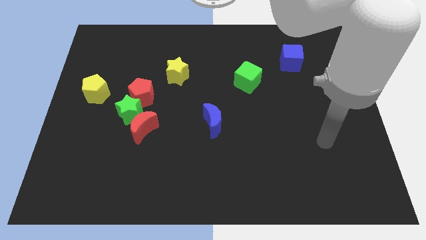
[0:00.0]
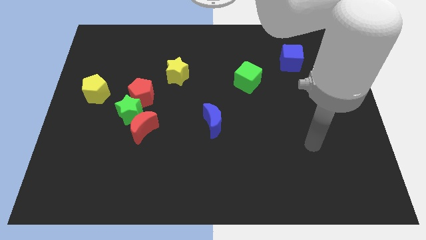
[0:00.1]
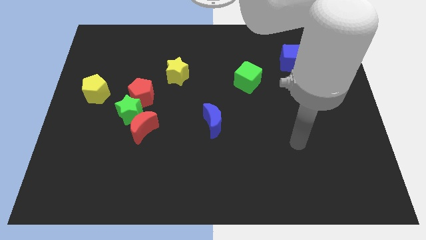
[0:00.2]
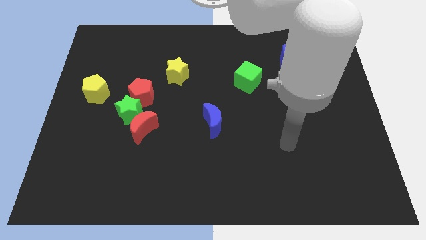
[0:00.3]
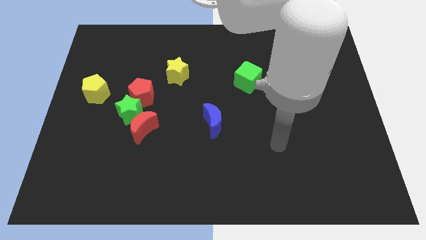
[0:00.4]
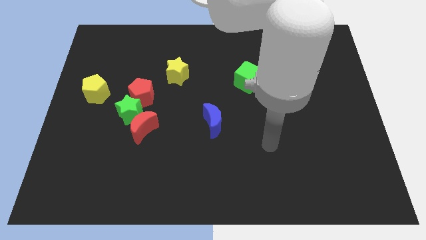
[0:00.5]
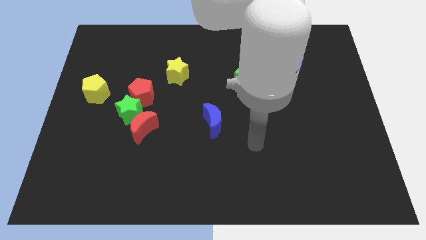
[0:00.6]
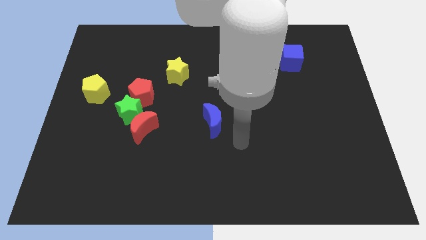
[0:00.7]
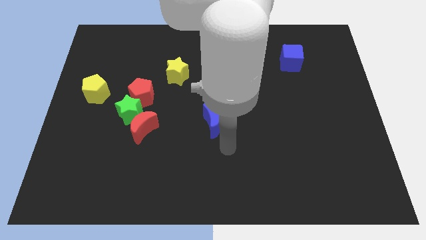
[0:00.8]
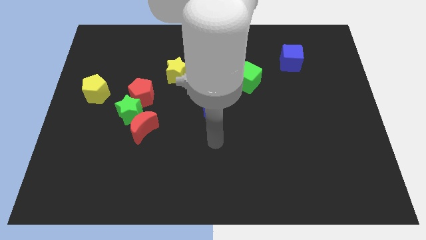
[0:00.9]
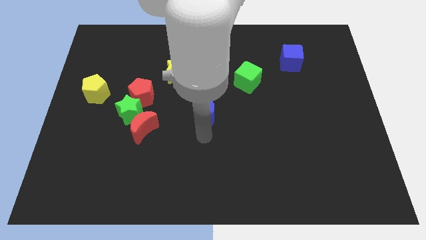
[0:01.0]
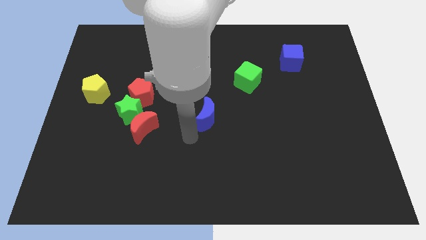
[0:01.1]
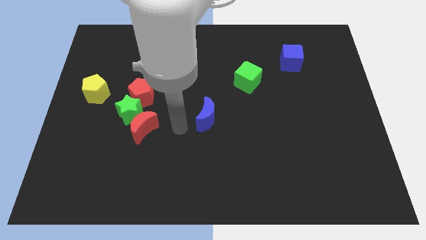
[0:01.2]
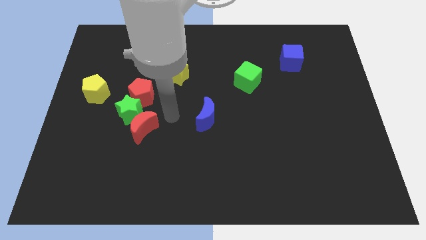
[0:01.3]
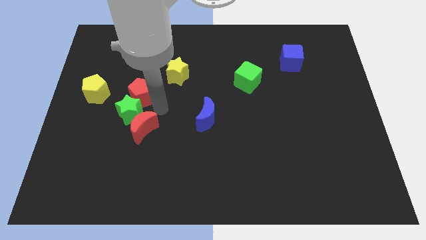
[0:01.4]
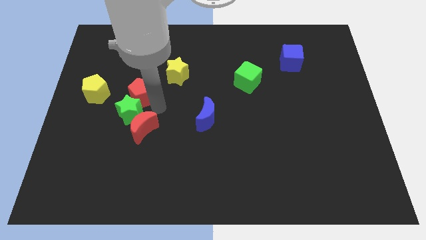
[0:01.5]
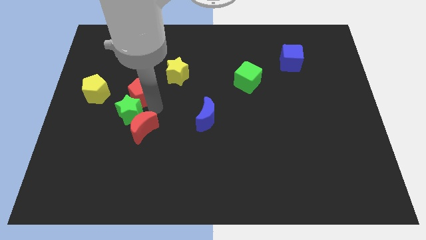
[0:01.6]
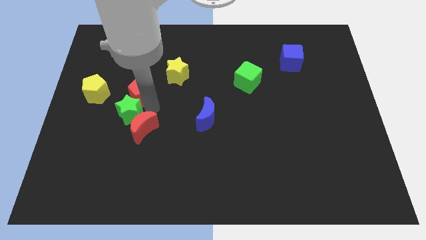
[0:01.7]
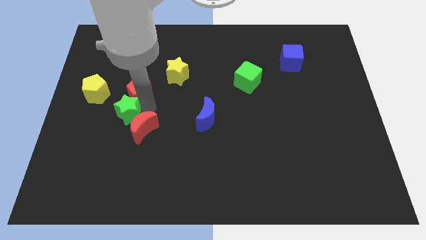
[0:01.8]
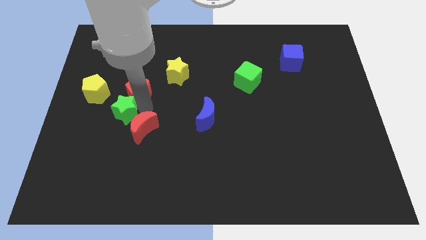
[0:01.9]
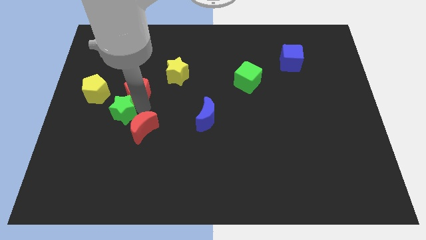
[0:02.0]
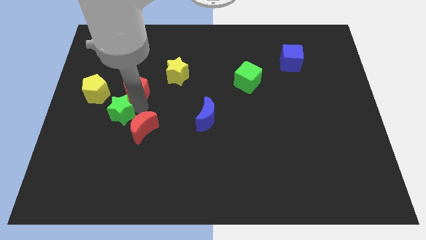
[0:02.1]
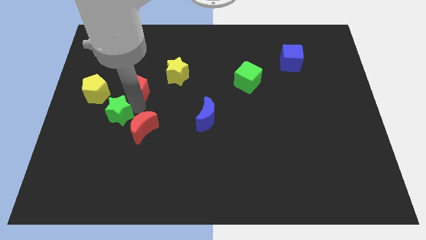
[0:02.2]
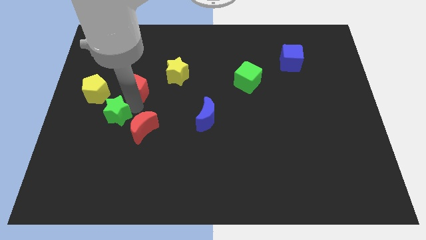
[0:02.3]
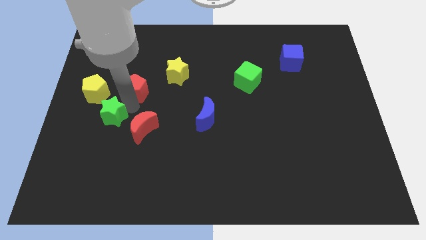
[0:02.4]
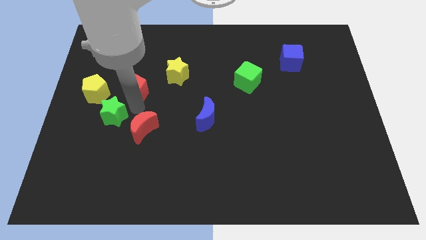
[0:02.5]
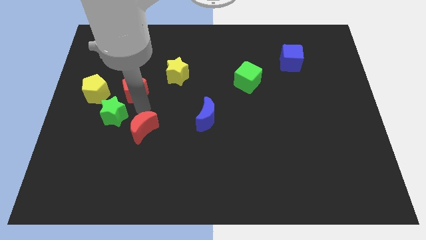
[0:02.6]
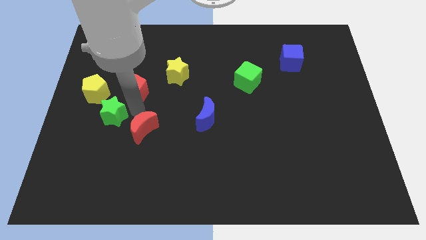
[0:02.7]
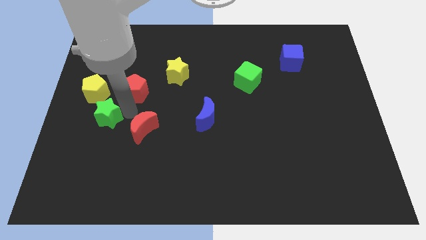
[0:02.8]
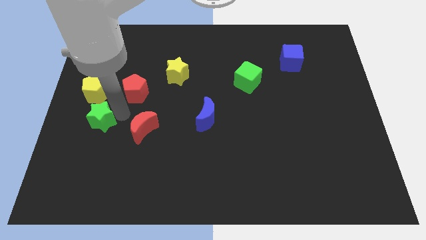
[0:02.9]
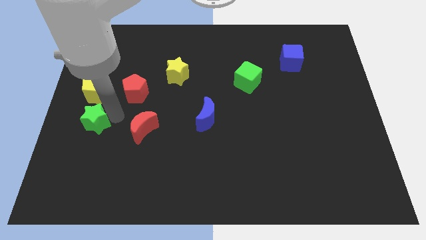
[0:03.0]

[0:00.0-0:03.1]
separate the green star from the red moon and red pentagon

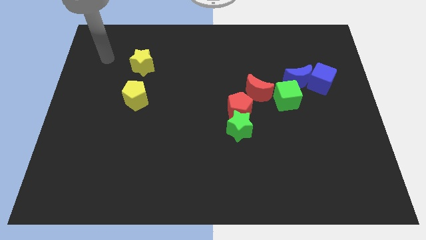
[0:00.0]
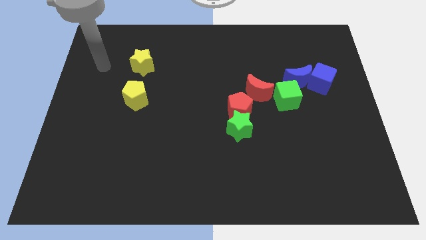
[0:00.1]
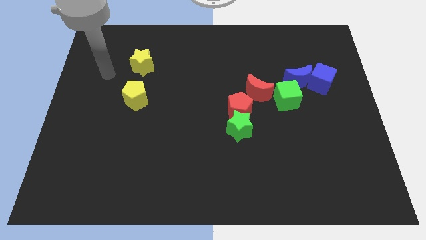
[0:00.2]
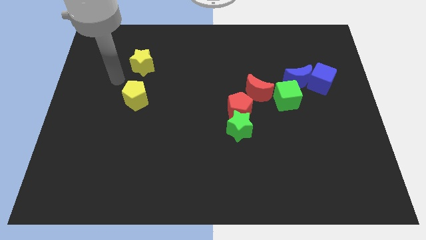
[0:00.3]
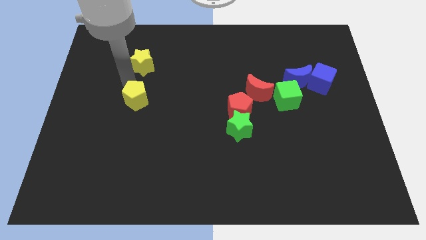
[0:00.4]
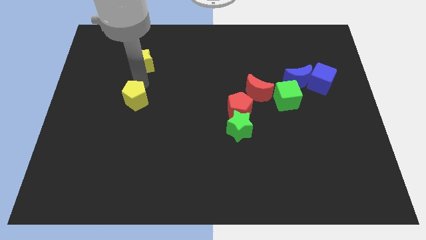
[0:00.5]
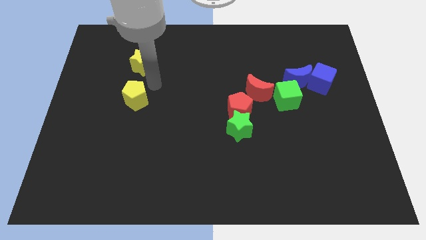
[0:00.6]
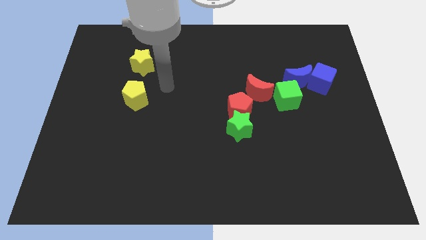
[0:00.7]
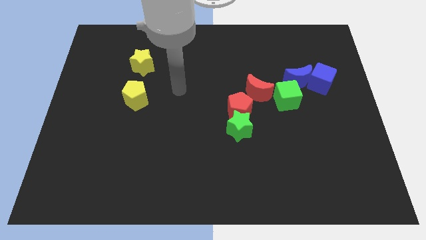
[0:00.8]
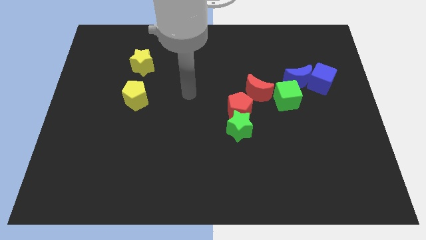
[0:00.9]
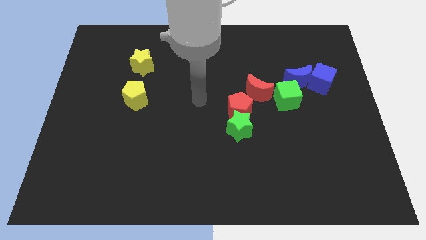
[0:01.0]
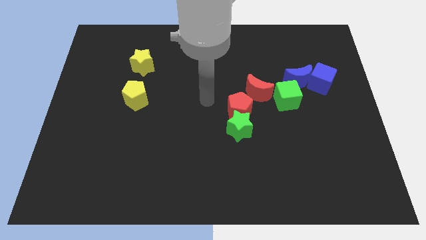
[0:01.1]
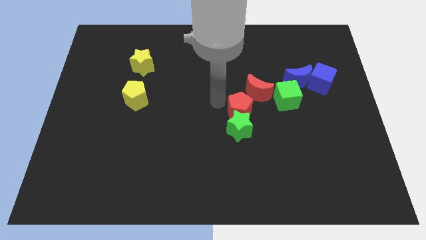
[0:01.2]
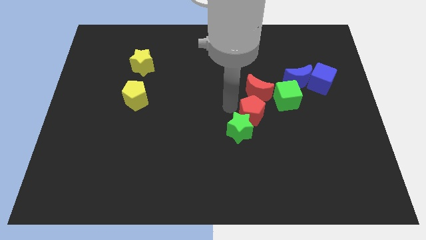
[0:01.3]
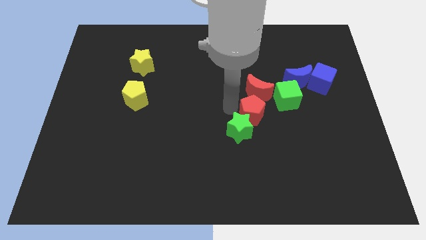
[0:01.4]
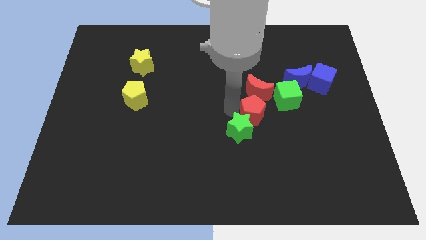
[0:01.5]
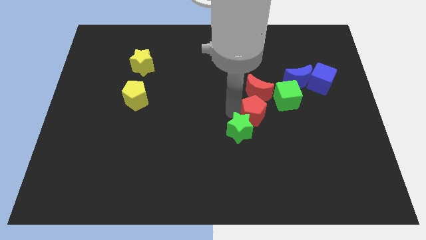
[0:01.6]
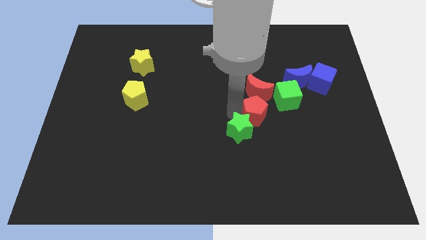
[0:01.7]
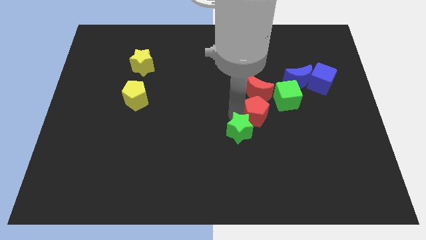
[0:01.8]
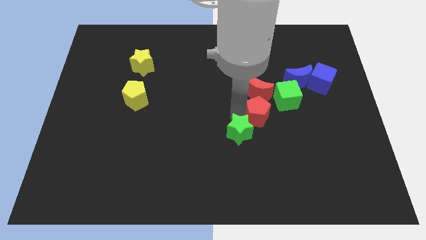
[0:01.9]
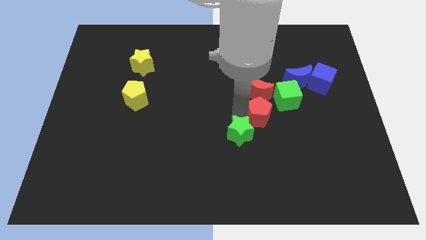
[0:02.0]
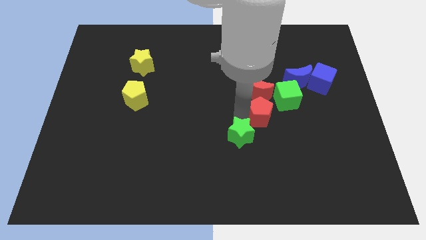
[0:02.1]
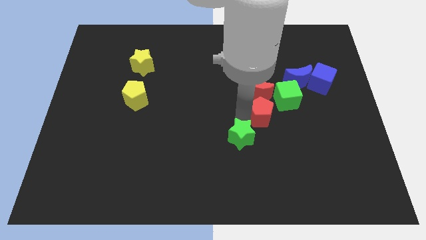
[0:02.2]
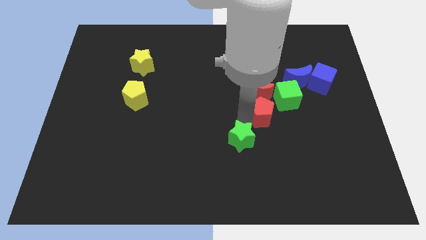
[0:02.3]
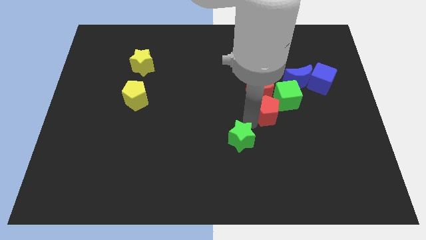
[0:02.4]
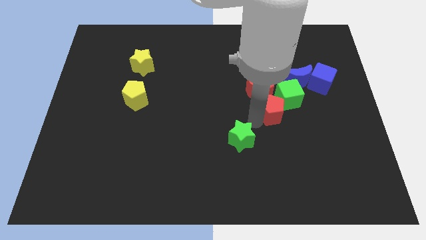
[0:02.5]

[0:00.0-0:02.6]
separate the green star from the red pentagon

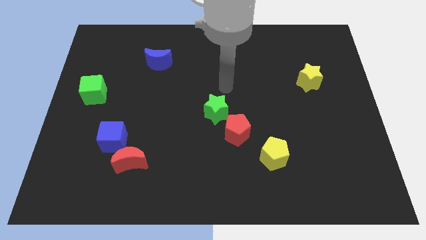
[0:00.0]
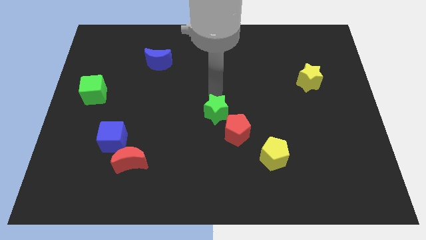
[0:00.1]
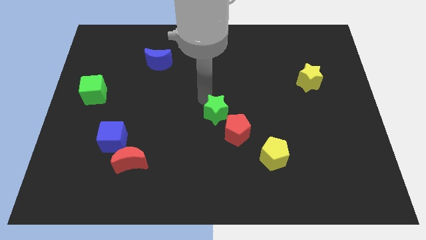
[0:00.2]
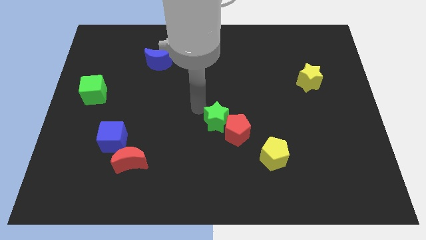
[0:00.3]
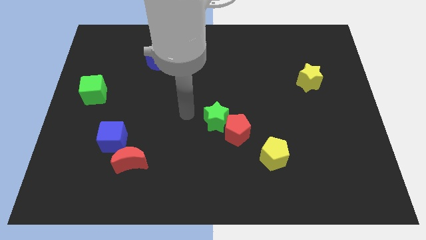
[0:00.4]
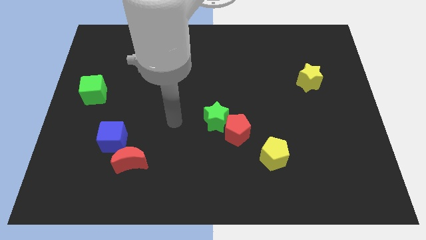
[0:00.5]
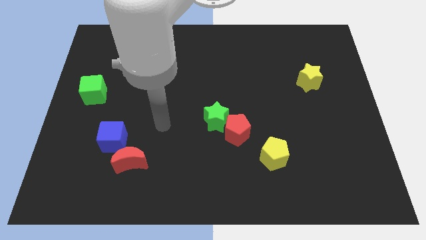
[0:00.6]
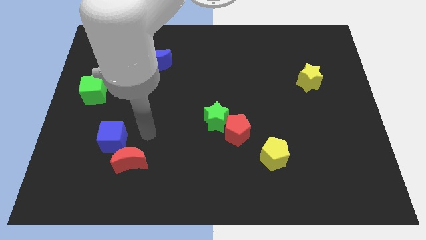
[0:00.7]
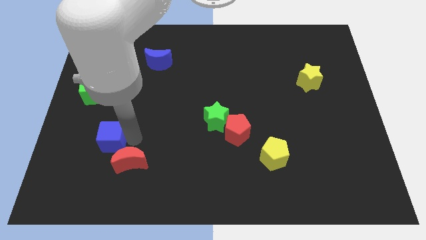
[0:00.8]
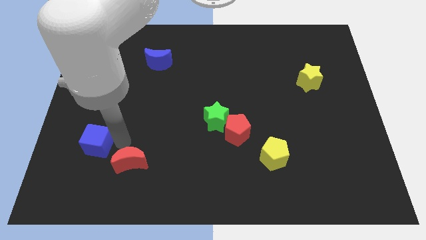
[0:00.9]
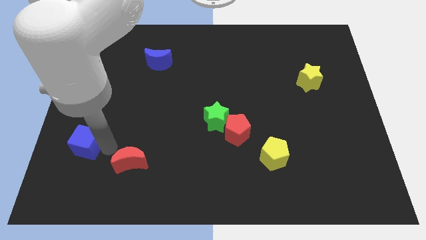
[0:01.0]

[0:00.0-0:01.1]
separate the red moon from the blue cube

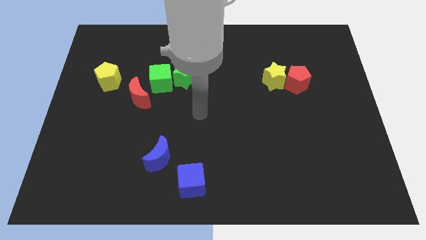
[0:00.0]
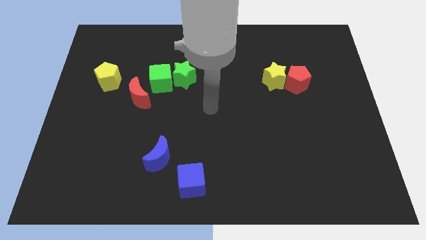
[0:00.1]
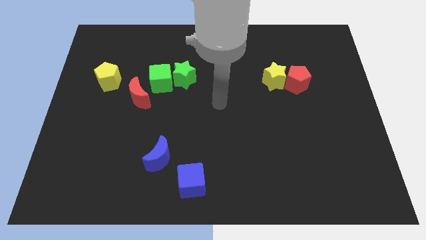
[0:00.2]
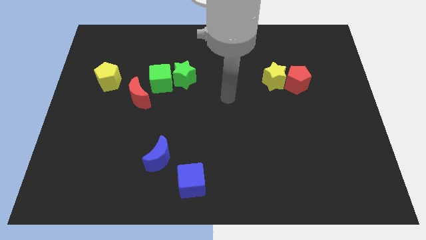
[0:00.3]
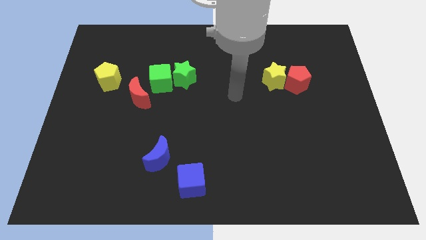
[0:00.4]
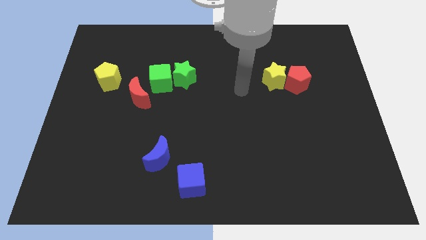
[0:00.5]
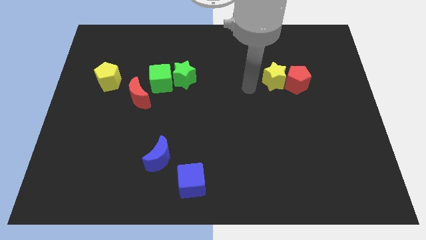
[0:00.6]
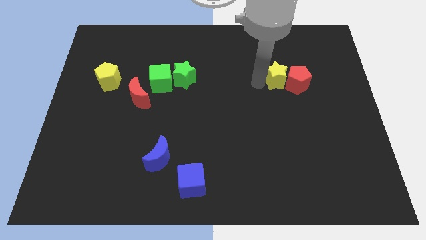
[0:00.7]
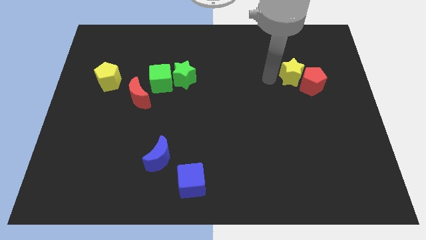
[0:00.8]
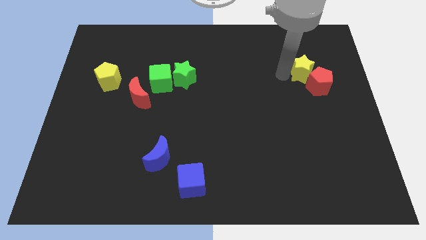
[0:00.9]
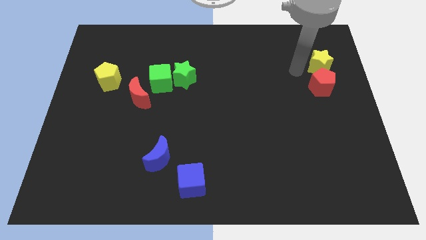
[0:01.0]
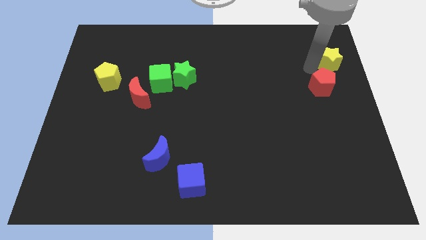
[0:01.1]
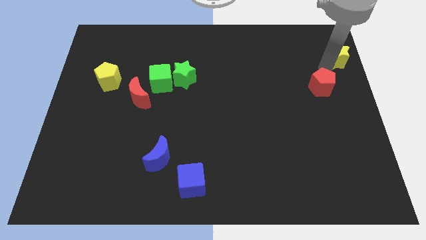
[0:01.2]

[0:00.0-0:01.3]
separate the red pentagon from the yellow star

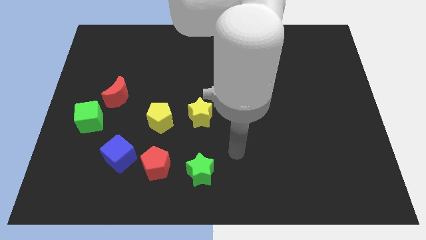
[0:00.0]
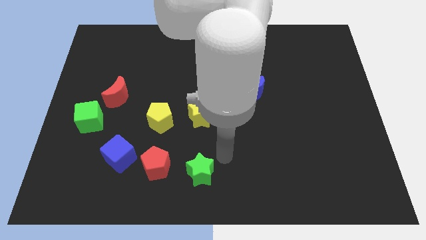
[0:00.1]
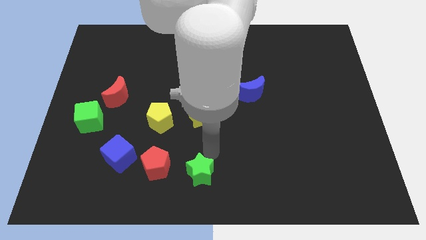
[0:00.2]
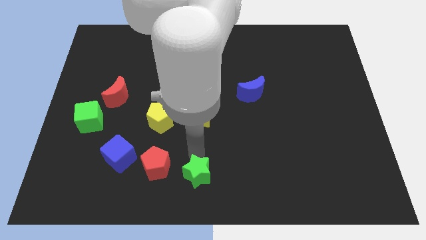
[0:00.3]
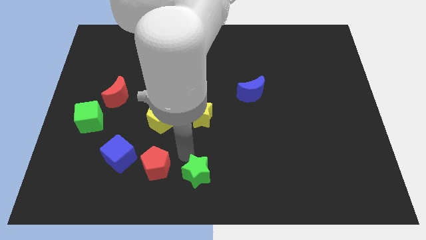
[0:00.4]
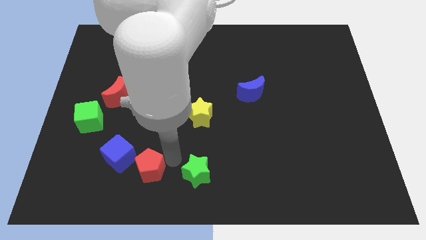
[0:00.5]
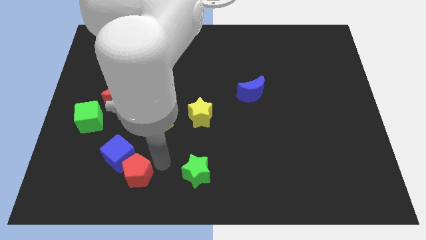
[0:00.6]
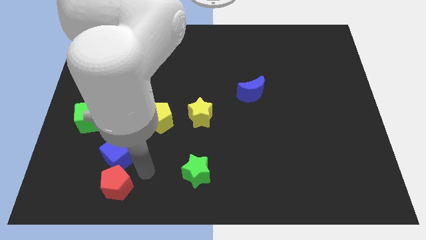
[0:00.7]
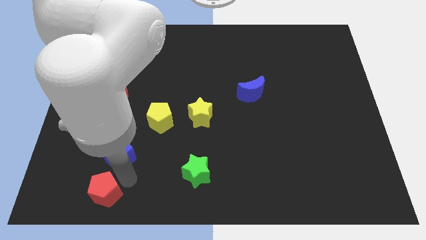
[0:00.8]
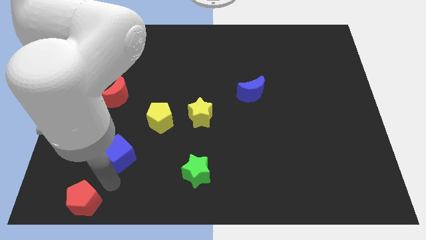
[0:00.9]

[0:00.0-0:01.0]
move the blue cube away from the red pentagon

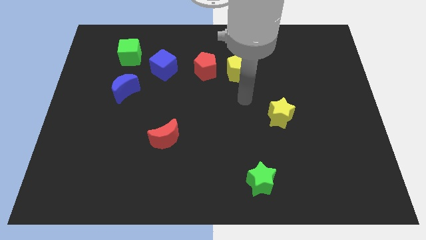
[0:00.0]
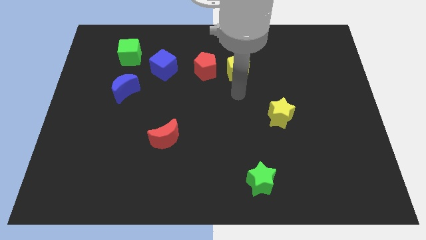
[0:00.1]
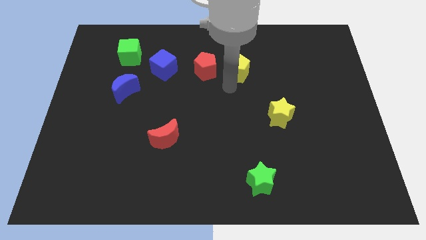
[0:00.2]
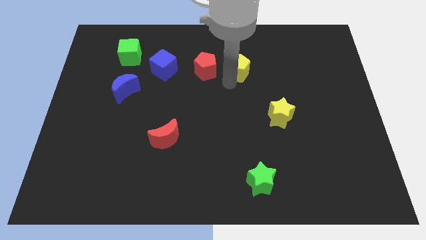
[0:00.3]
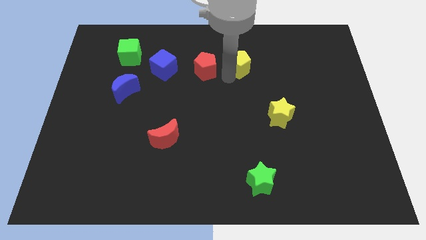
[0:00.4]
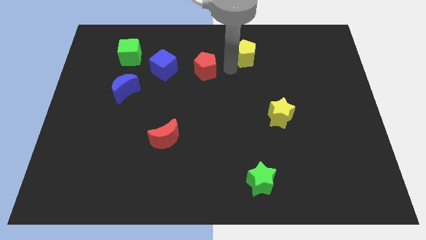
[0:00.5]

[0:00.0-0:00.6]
move the red pentagon away from the yellow pentagon
